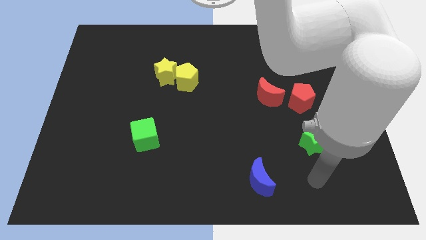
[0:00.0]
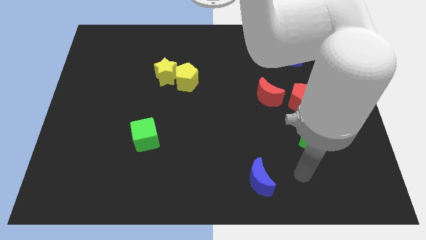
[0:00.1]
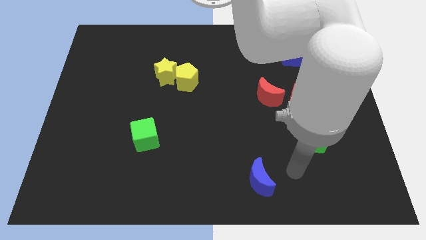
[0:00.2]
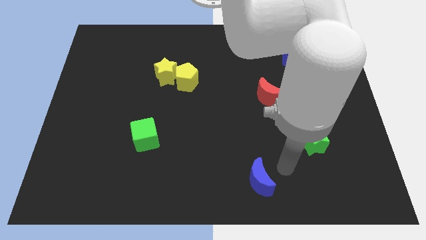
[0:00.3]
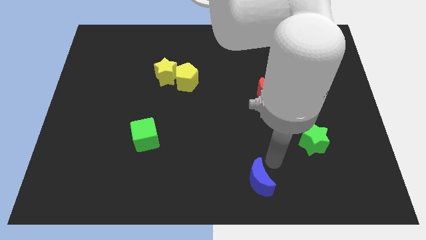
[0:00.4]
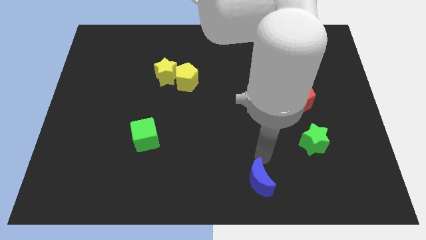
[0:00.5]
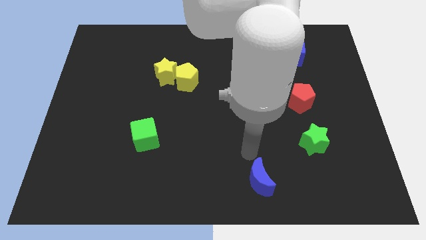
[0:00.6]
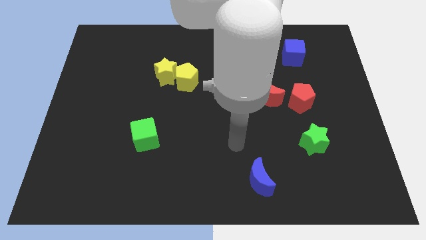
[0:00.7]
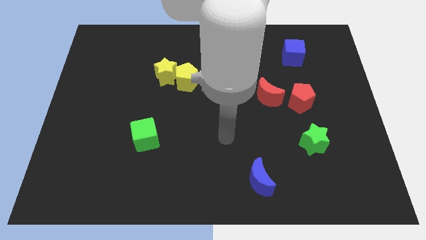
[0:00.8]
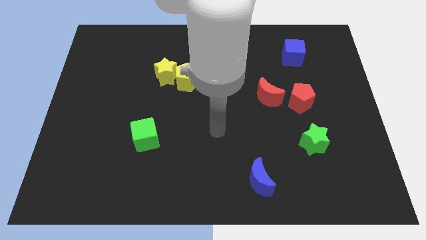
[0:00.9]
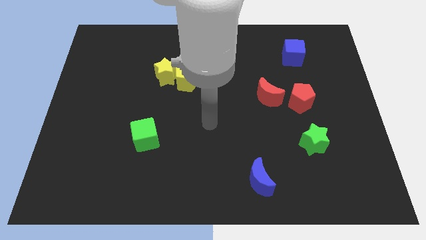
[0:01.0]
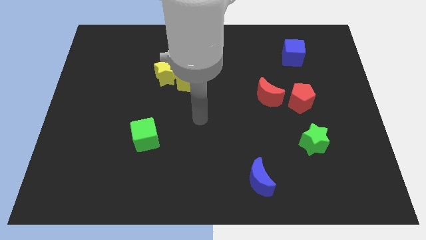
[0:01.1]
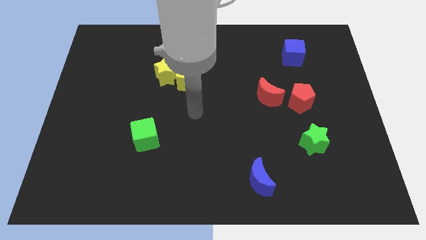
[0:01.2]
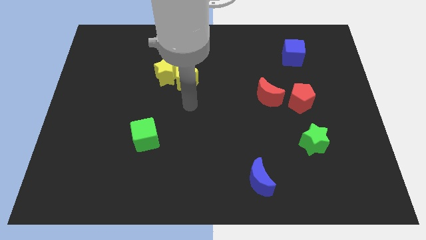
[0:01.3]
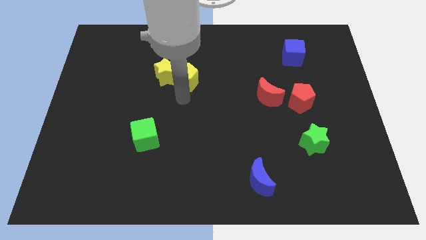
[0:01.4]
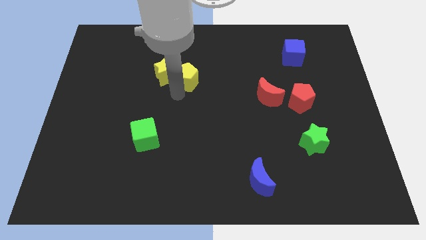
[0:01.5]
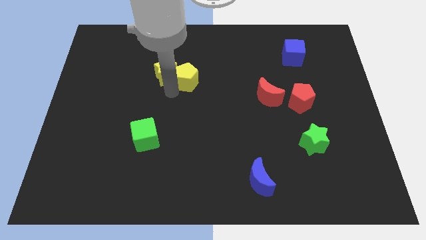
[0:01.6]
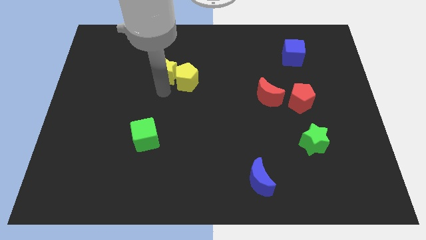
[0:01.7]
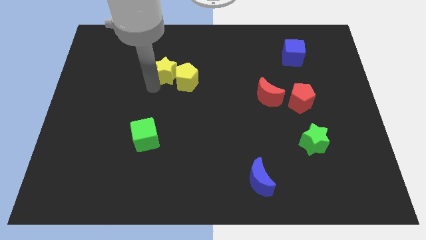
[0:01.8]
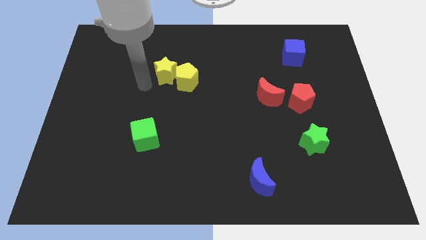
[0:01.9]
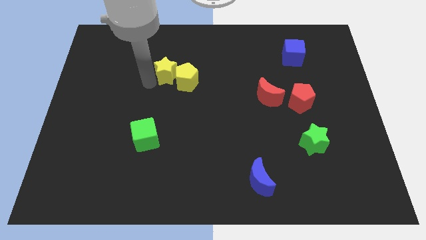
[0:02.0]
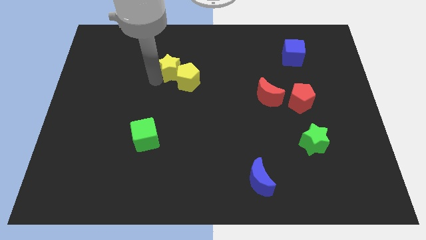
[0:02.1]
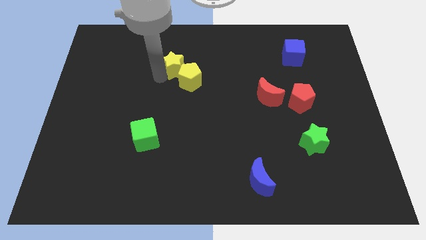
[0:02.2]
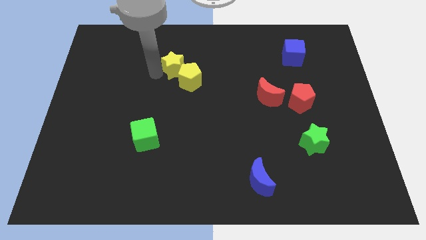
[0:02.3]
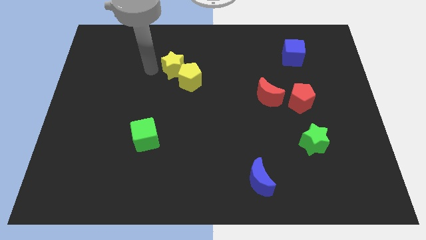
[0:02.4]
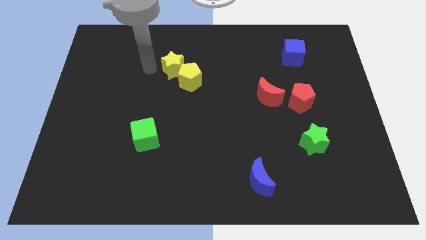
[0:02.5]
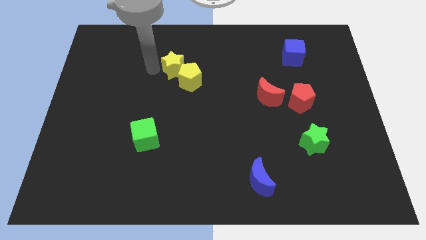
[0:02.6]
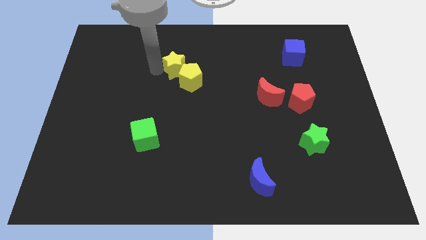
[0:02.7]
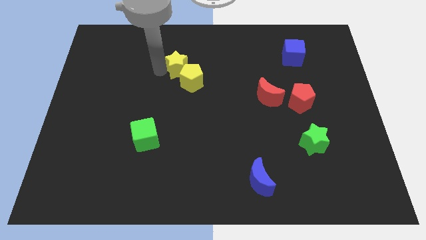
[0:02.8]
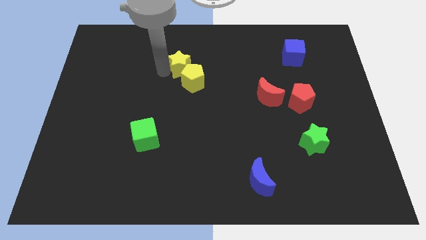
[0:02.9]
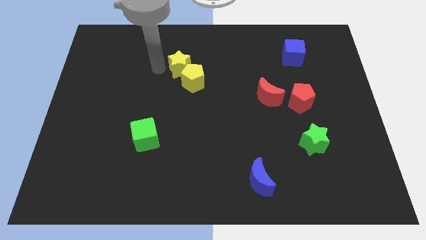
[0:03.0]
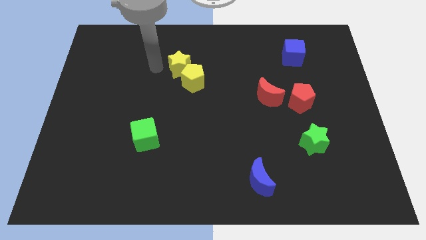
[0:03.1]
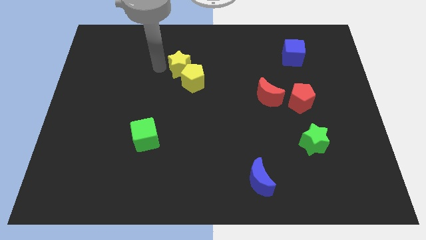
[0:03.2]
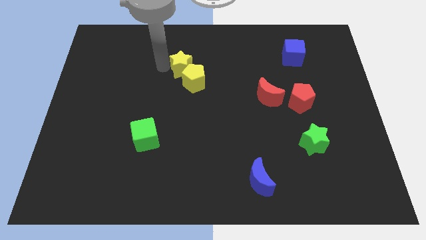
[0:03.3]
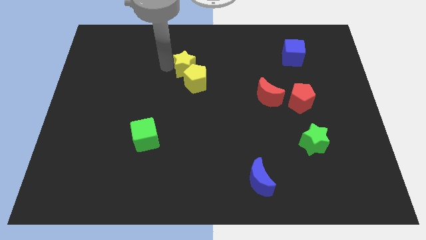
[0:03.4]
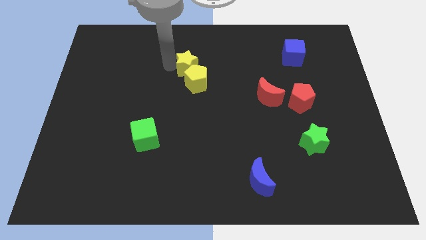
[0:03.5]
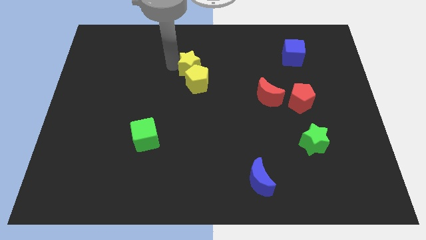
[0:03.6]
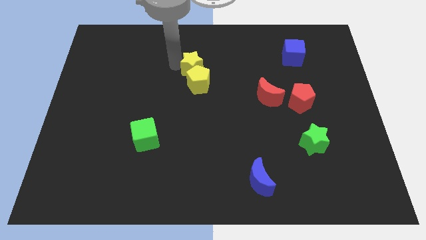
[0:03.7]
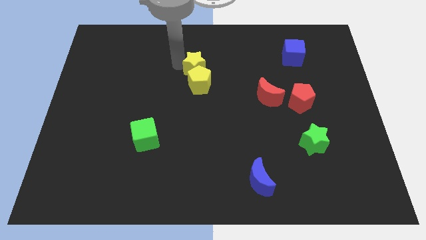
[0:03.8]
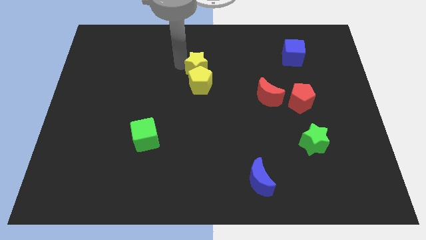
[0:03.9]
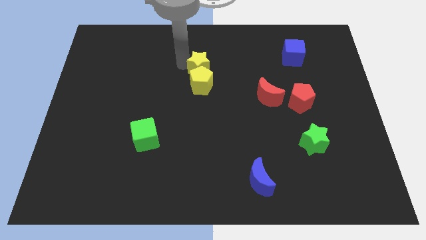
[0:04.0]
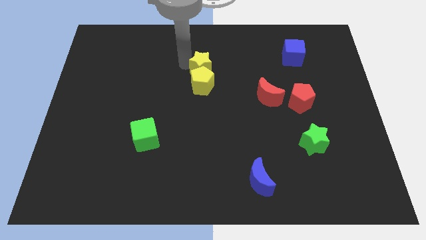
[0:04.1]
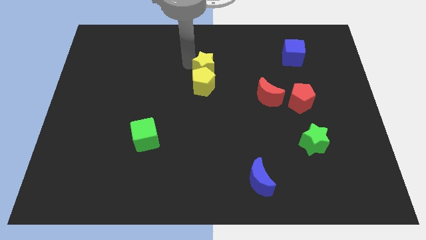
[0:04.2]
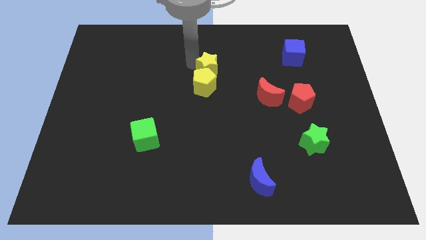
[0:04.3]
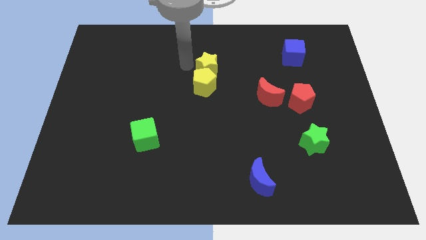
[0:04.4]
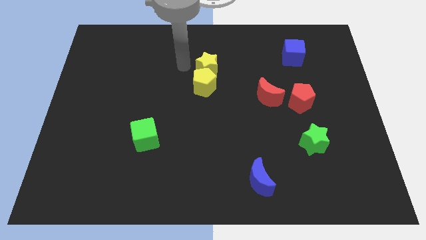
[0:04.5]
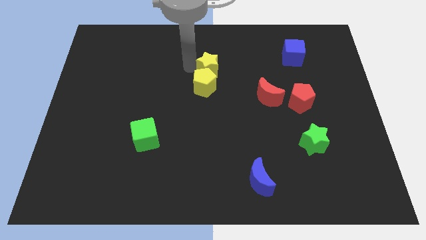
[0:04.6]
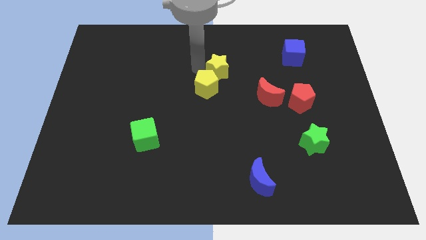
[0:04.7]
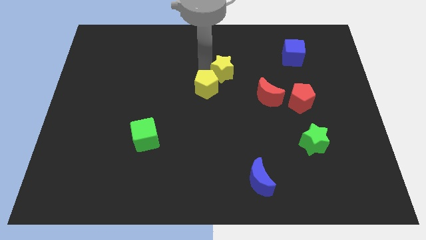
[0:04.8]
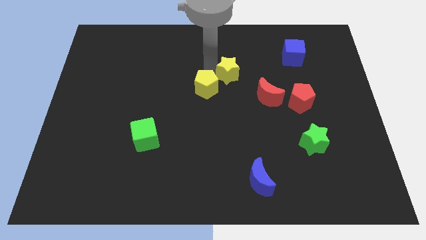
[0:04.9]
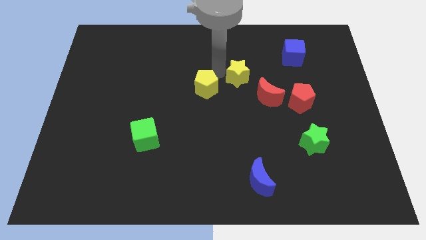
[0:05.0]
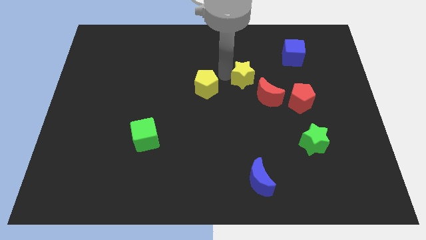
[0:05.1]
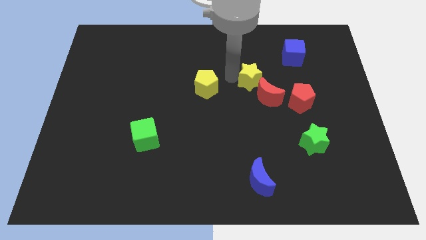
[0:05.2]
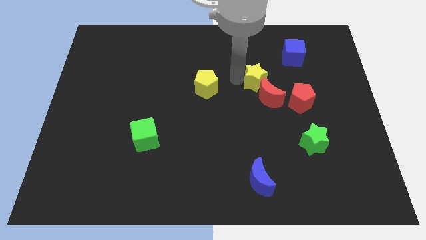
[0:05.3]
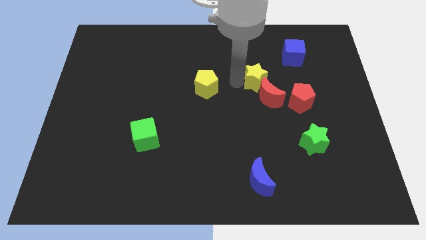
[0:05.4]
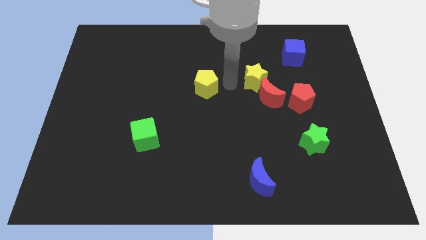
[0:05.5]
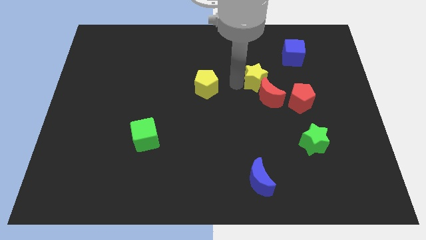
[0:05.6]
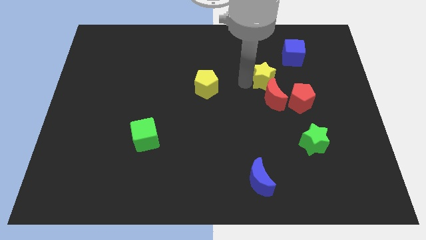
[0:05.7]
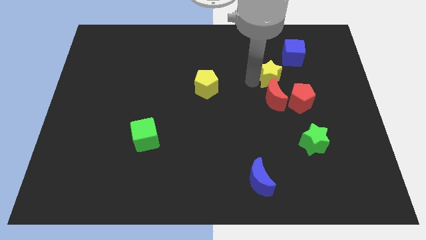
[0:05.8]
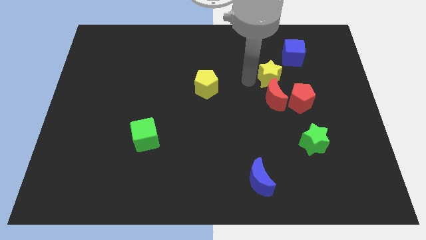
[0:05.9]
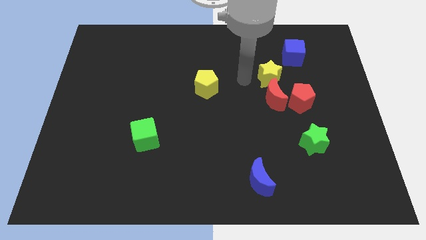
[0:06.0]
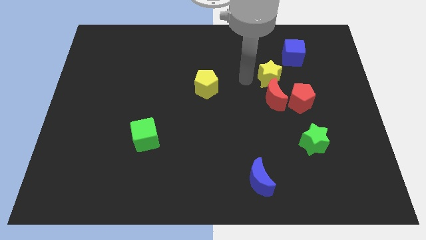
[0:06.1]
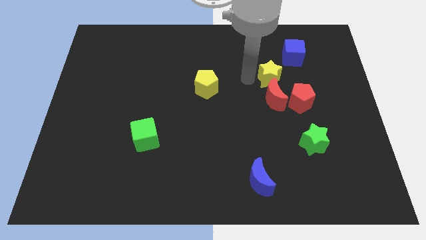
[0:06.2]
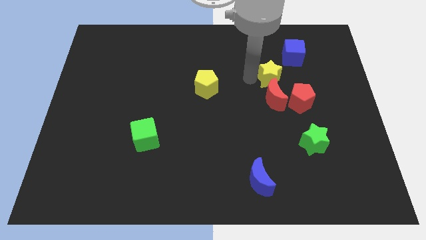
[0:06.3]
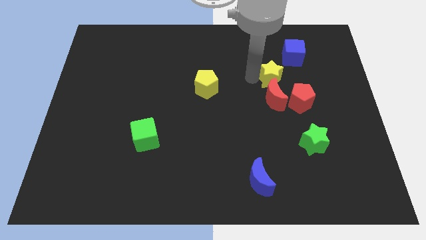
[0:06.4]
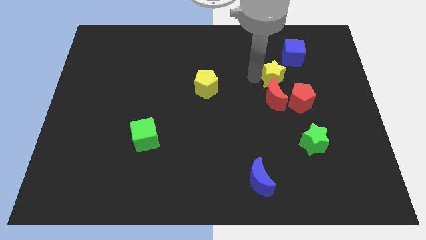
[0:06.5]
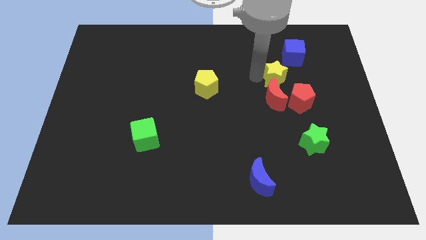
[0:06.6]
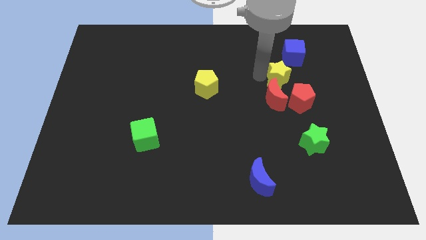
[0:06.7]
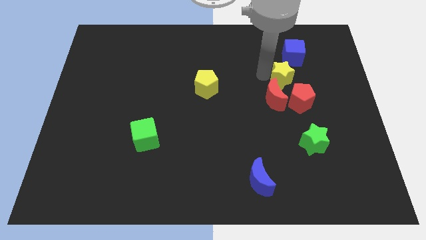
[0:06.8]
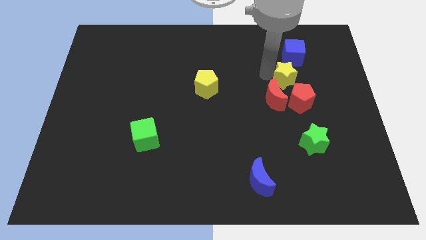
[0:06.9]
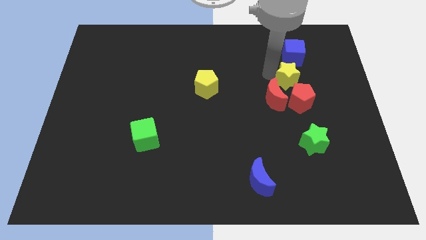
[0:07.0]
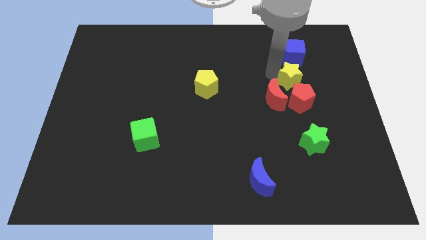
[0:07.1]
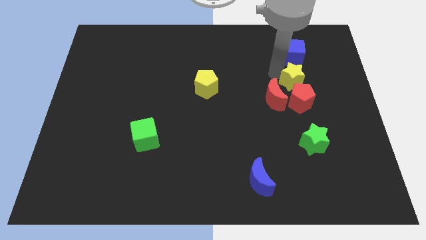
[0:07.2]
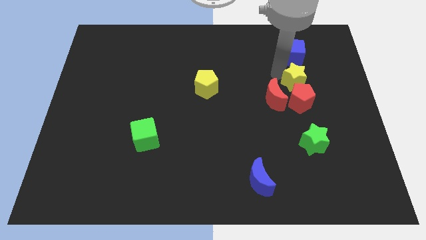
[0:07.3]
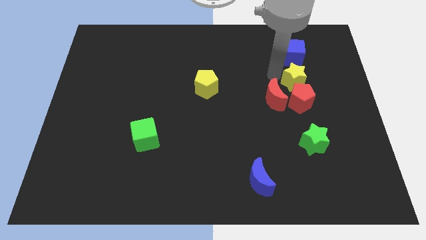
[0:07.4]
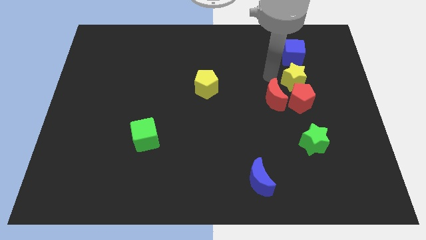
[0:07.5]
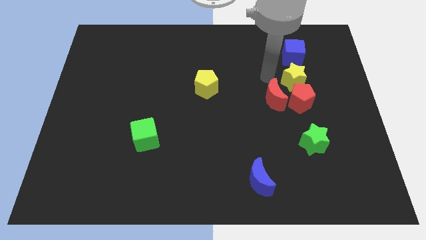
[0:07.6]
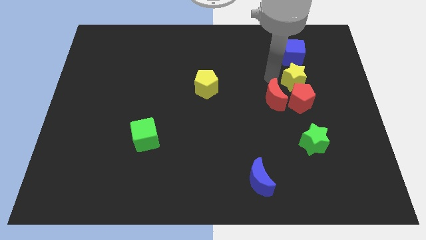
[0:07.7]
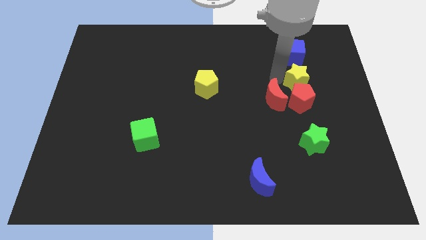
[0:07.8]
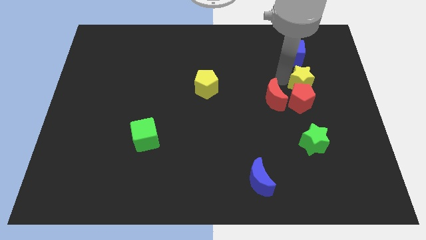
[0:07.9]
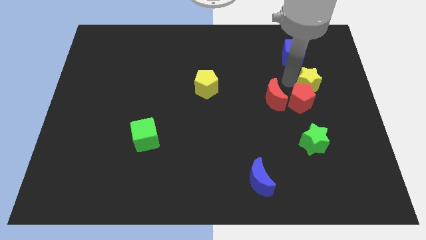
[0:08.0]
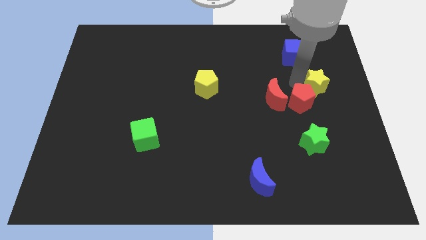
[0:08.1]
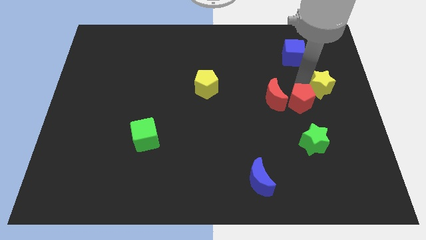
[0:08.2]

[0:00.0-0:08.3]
slide the yellow star to the right side of the board
